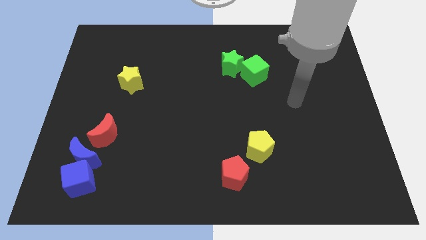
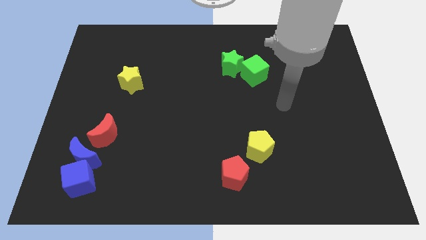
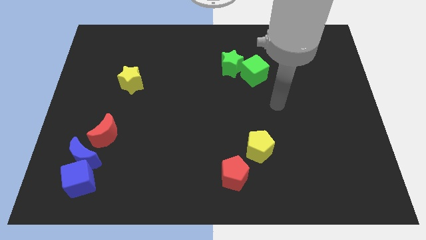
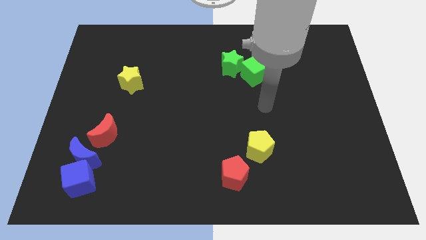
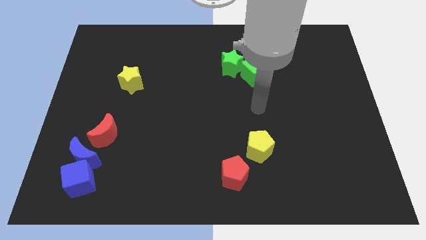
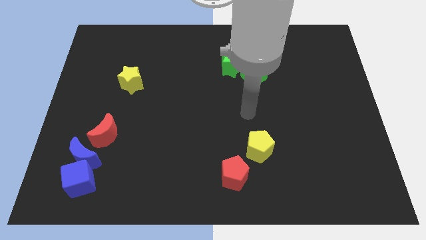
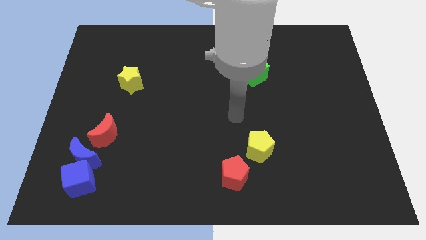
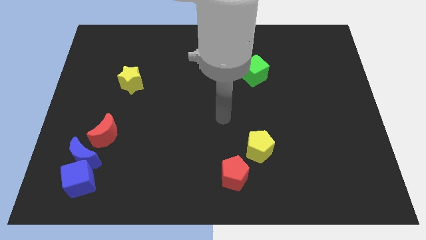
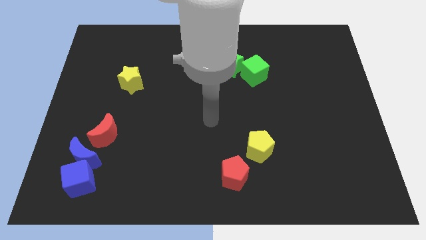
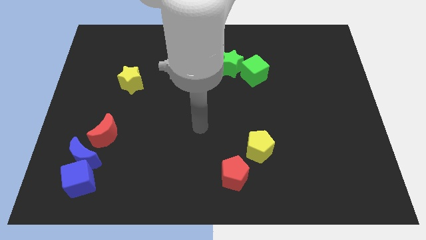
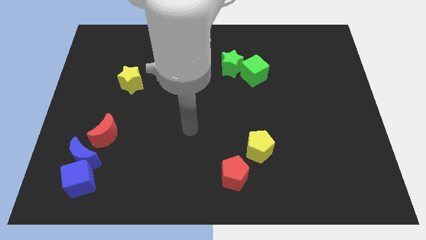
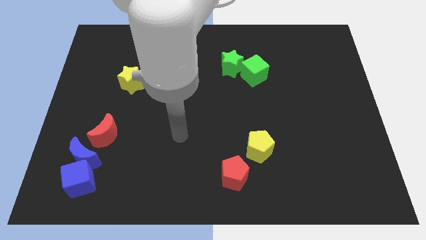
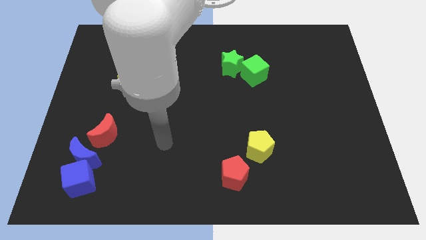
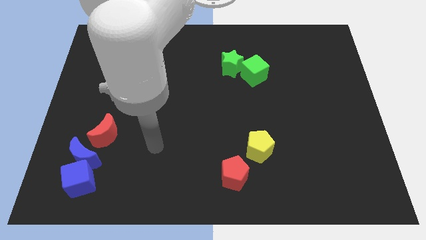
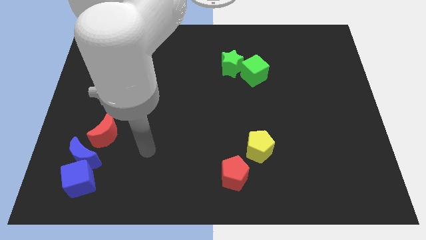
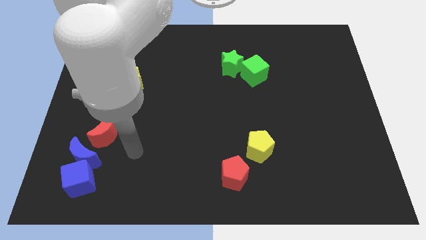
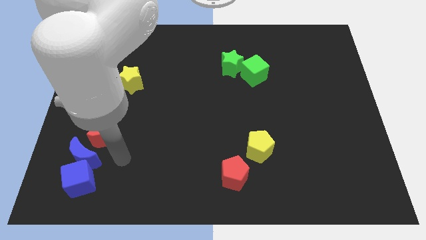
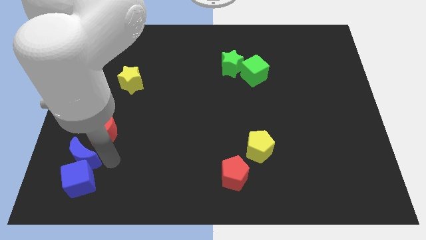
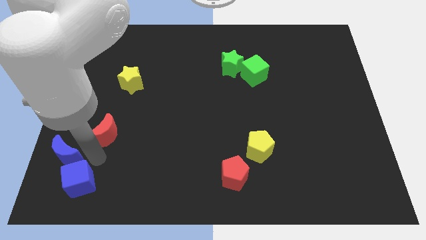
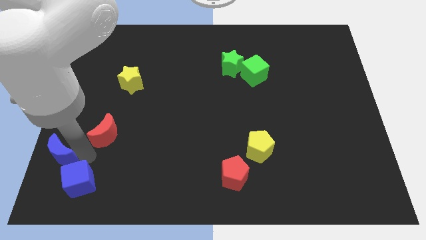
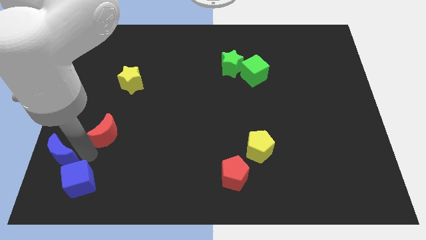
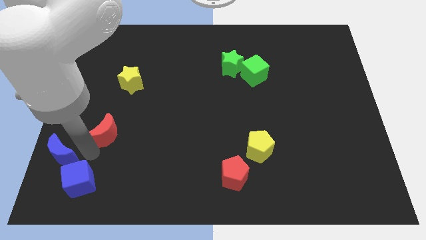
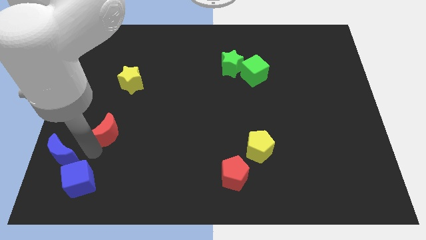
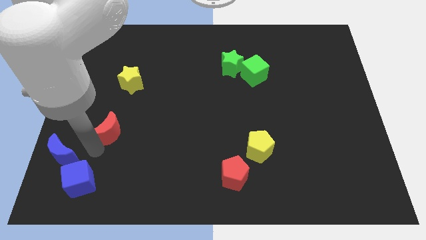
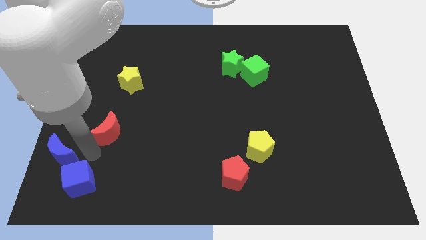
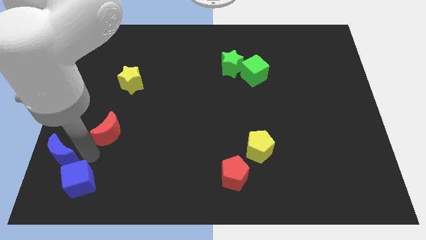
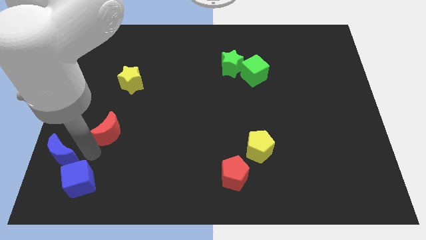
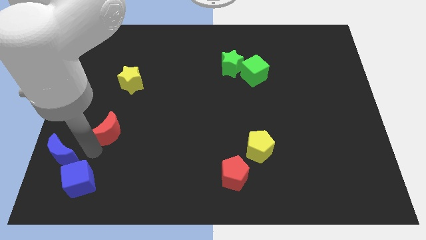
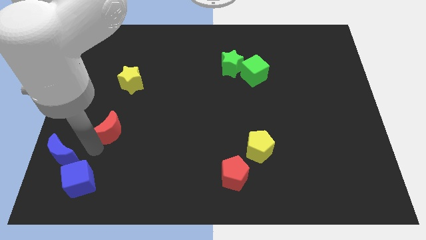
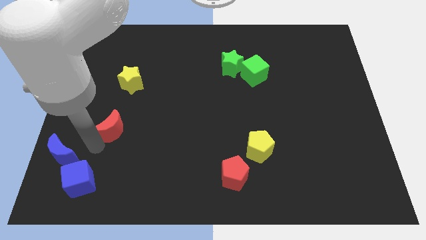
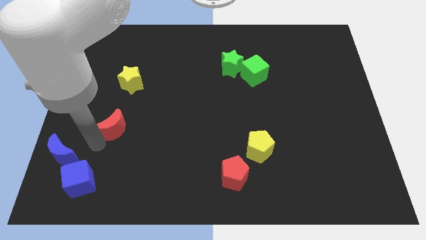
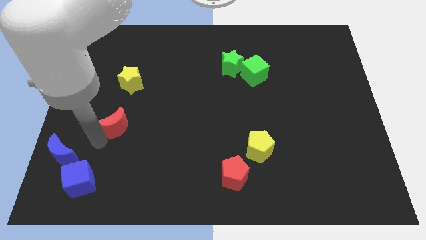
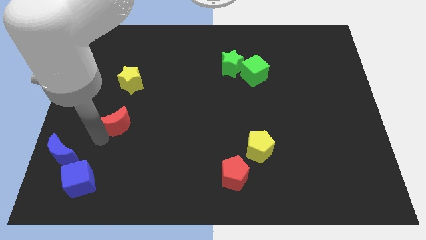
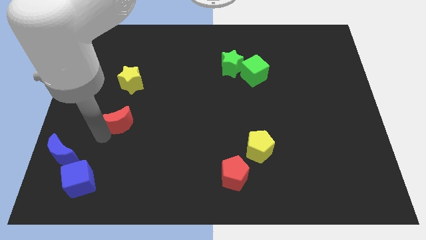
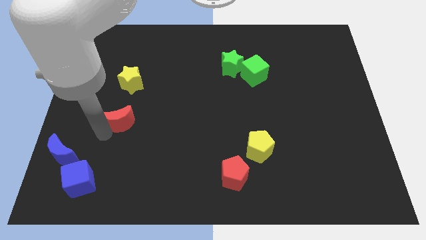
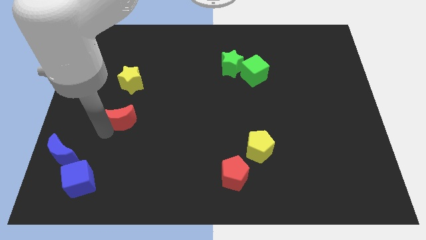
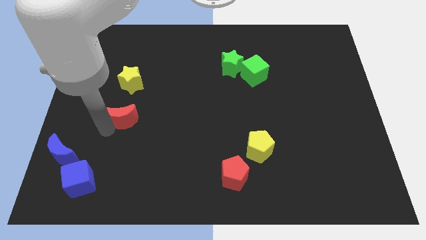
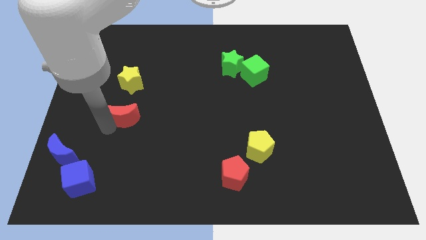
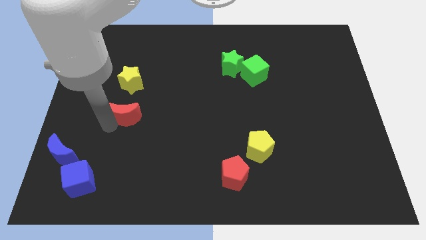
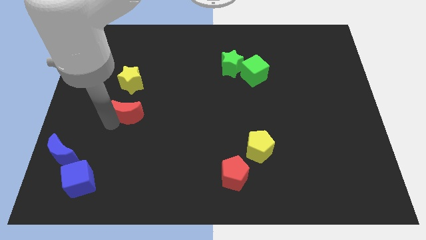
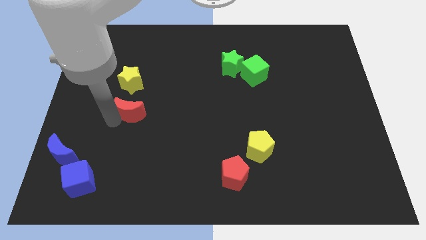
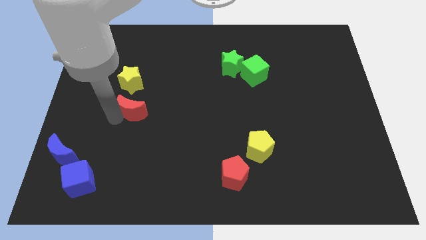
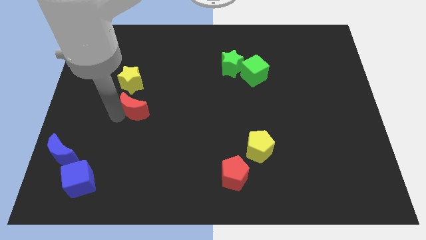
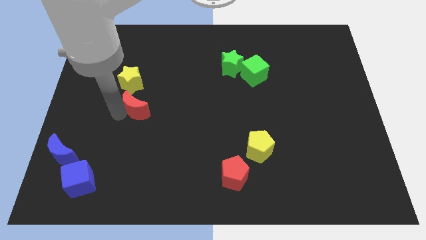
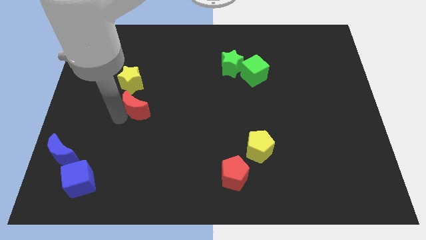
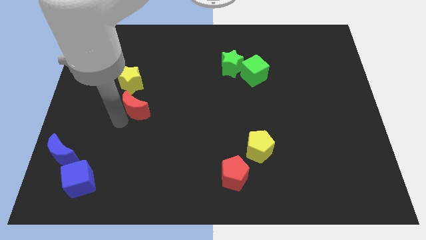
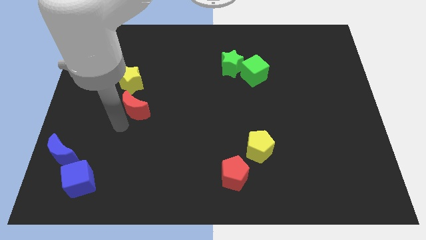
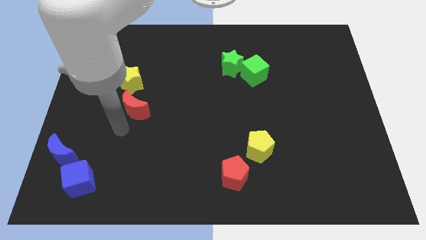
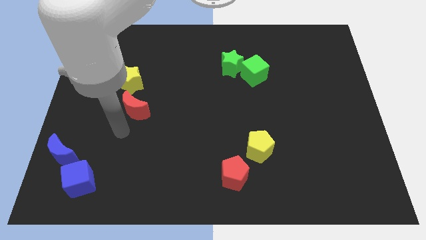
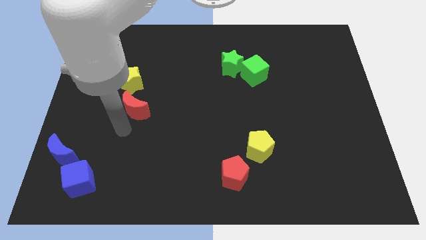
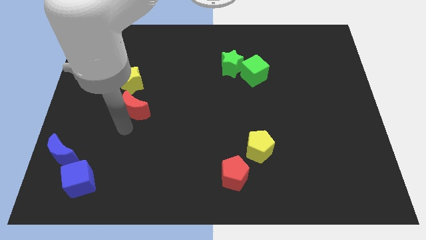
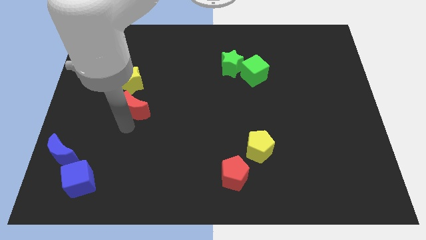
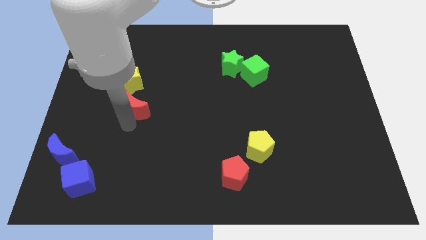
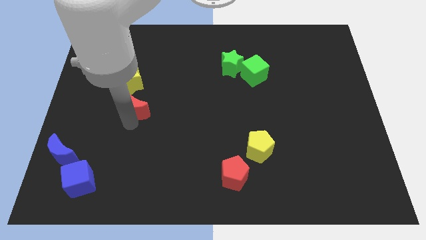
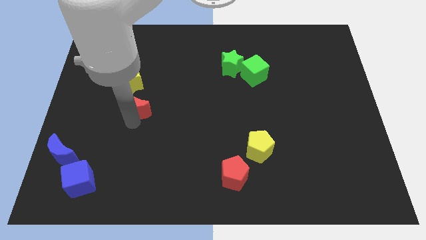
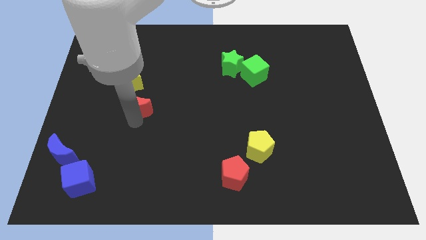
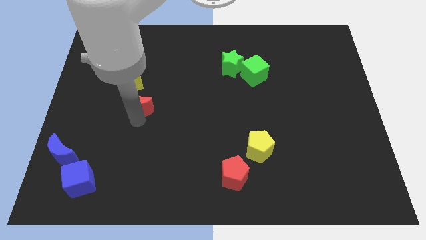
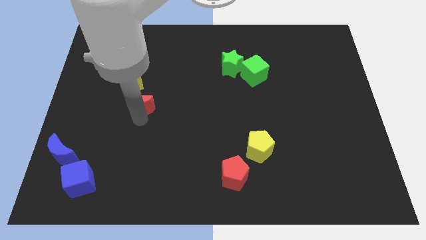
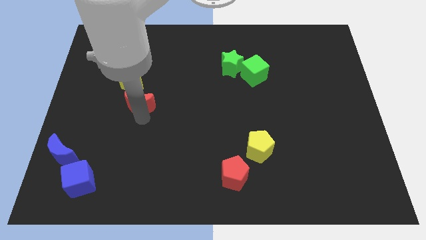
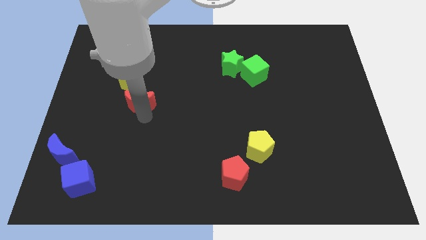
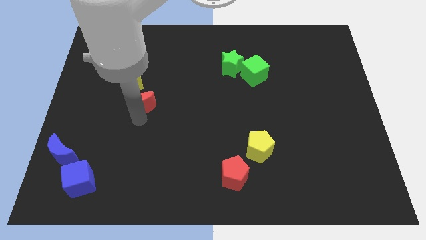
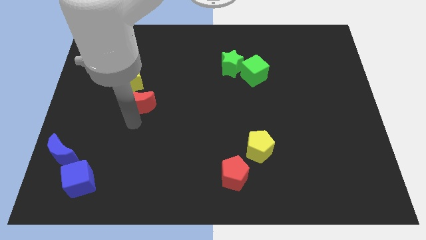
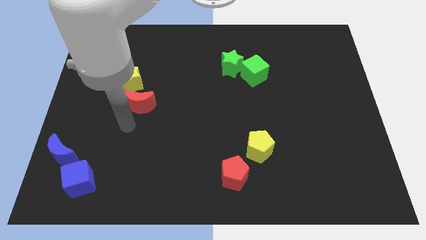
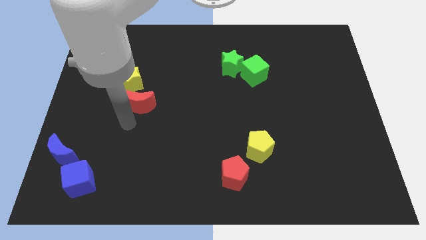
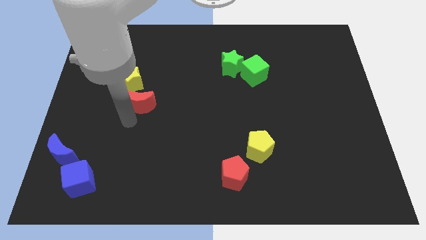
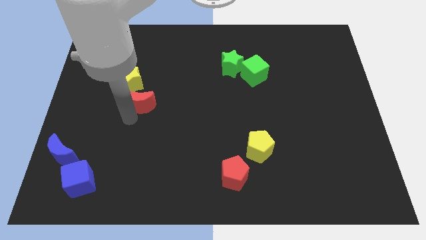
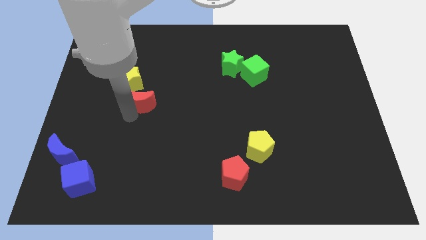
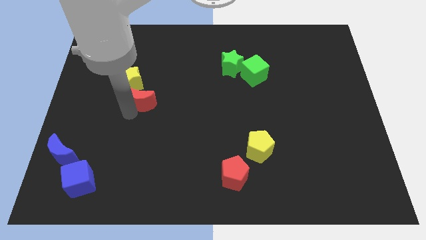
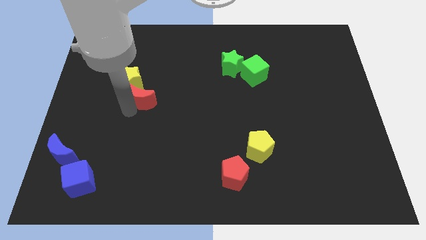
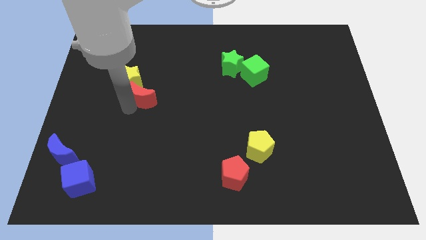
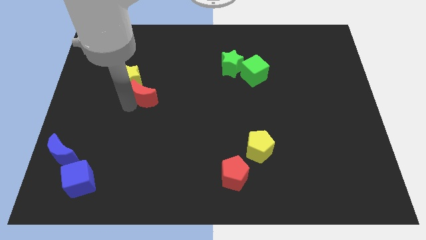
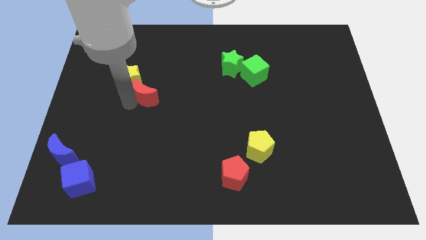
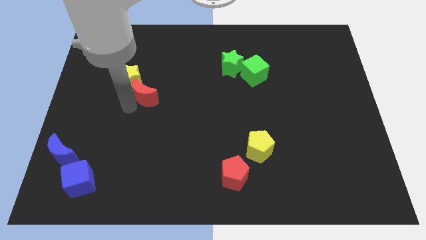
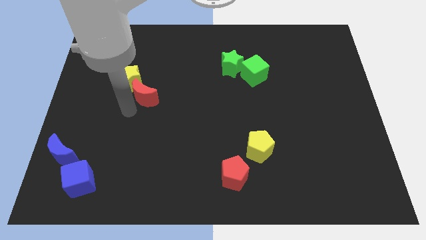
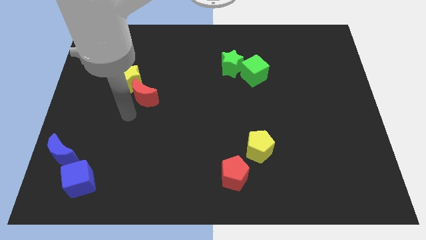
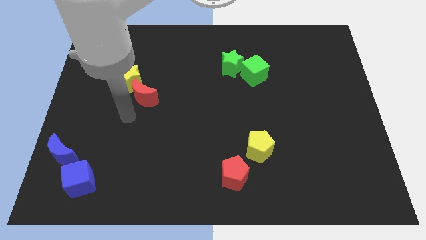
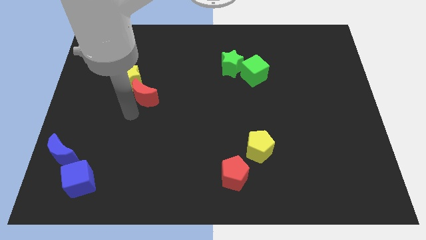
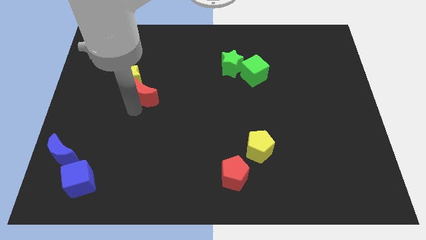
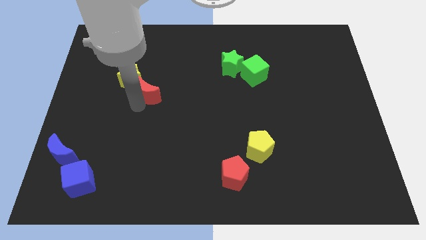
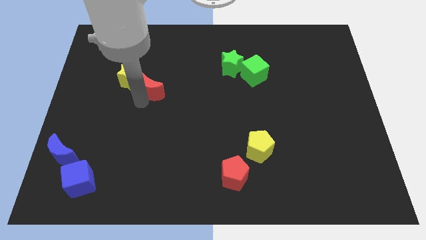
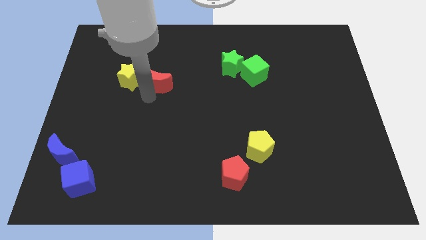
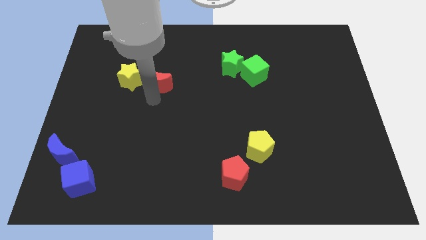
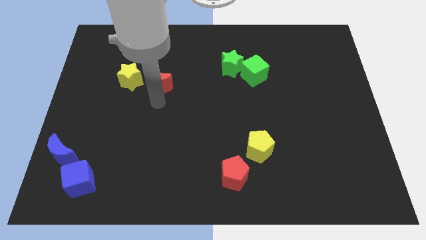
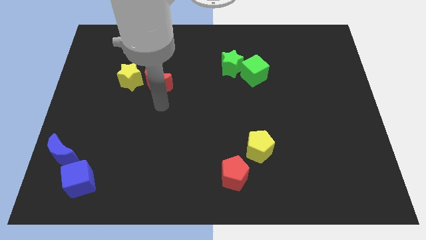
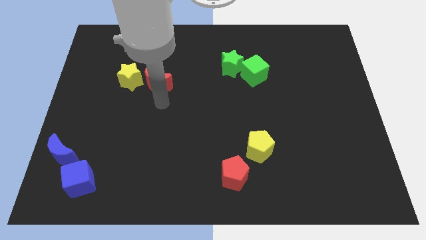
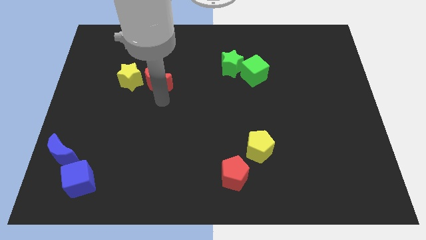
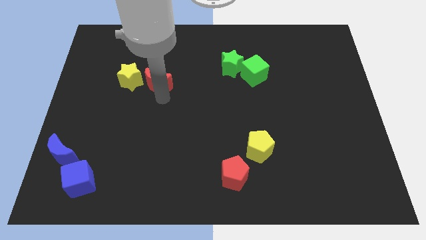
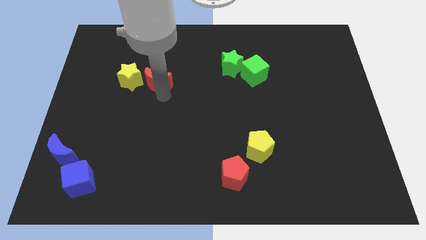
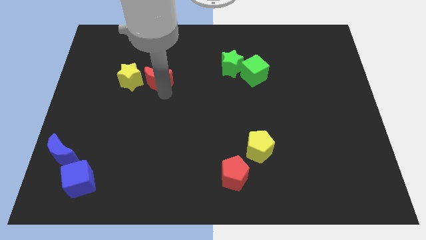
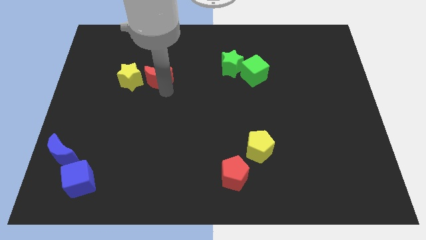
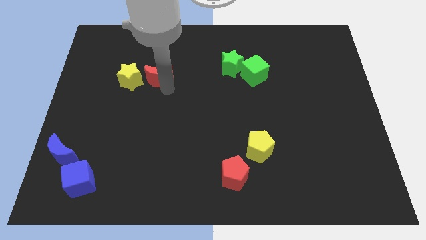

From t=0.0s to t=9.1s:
push the red moon to the top right of the yellow star
